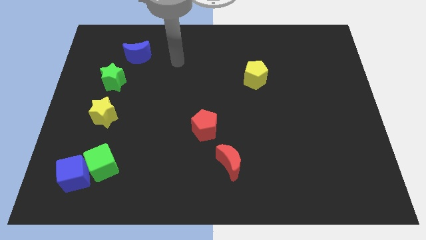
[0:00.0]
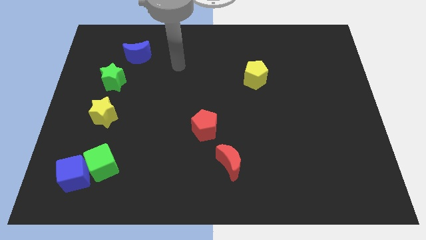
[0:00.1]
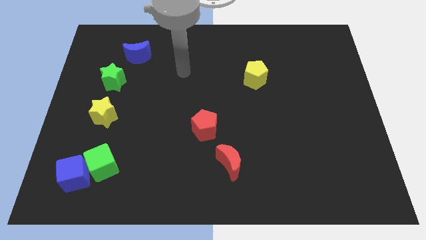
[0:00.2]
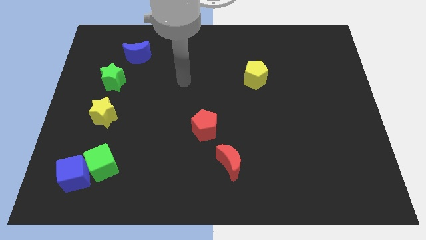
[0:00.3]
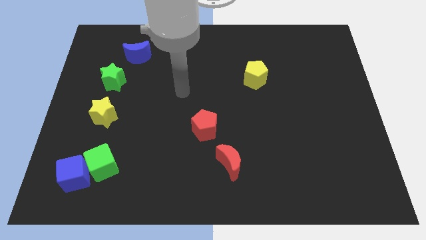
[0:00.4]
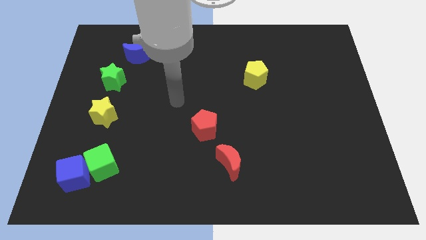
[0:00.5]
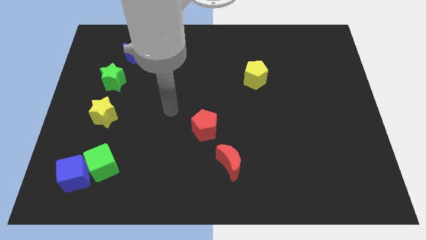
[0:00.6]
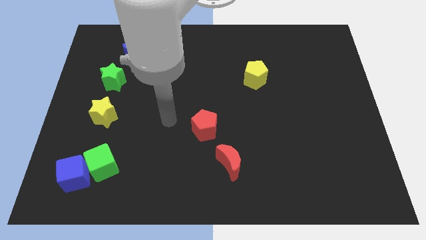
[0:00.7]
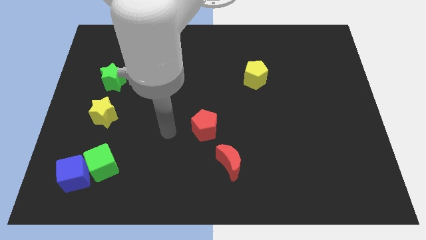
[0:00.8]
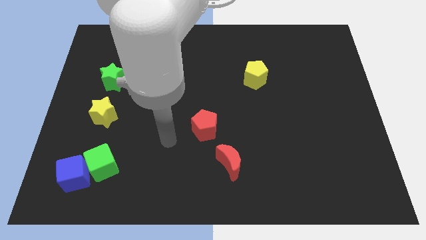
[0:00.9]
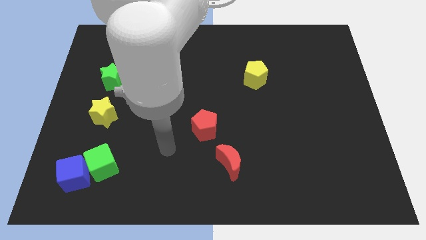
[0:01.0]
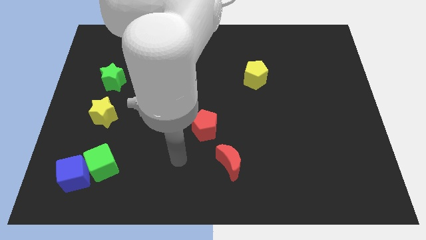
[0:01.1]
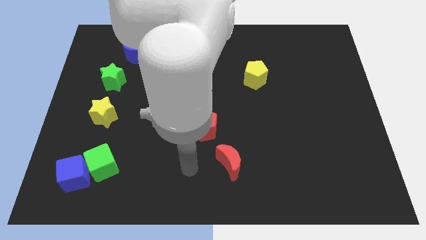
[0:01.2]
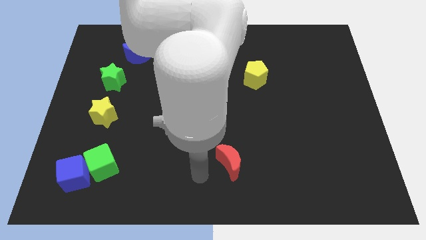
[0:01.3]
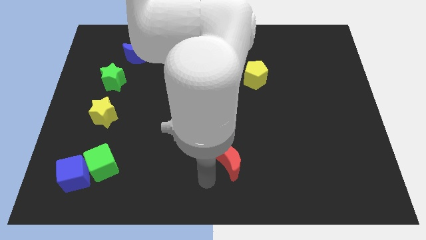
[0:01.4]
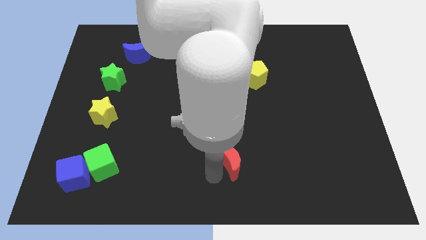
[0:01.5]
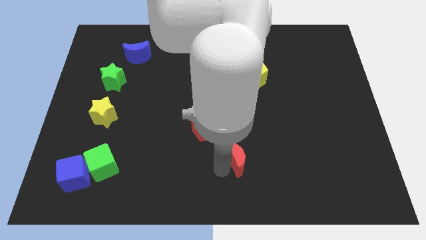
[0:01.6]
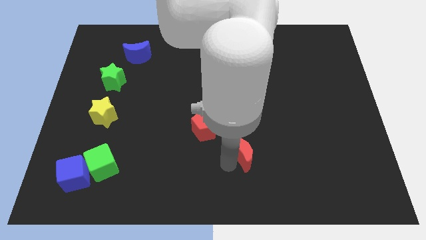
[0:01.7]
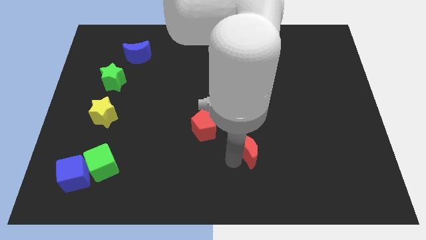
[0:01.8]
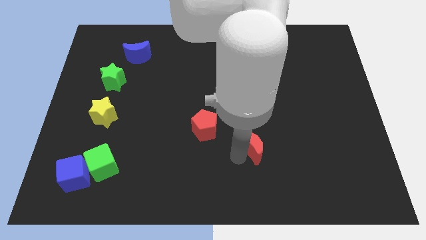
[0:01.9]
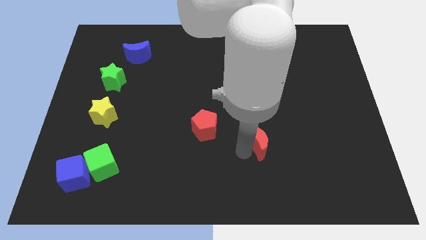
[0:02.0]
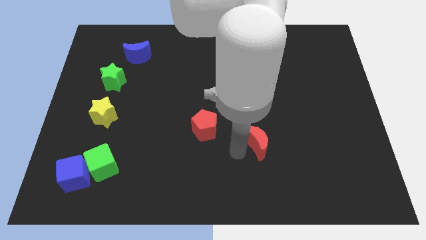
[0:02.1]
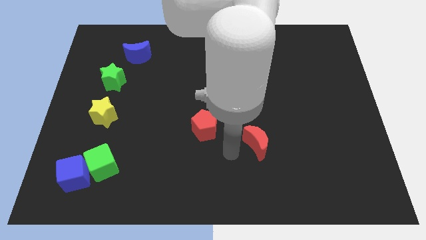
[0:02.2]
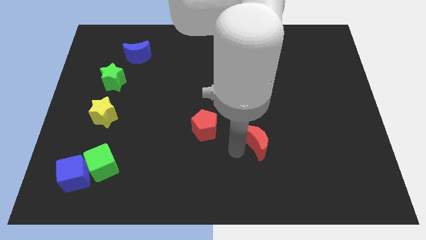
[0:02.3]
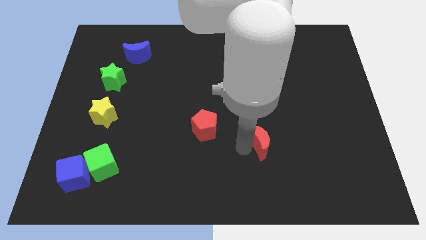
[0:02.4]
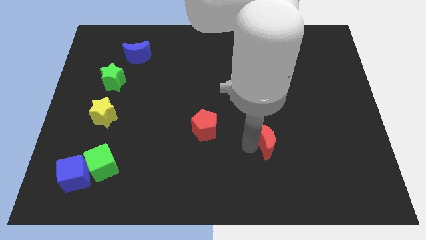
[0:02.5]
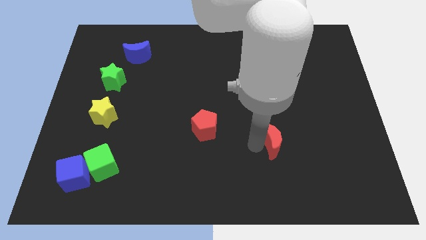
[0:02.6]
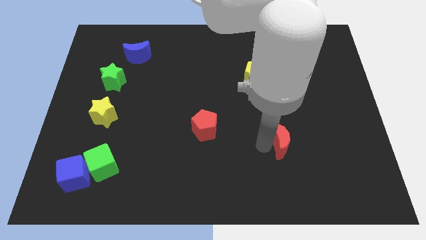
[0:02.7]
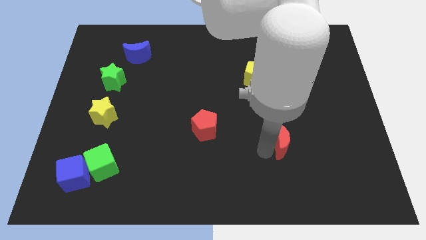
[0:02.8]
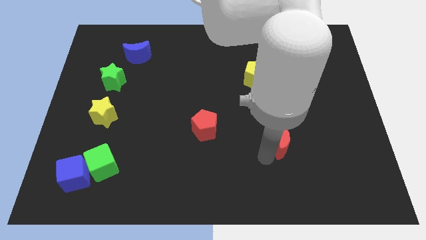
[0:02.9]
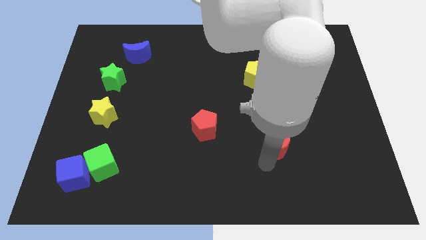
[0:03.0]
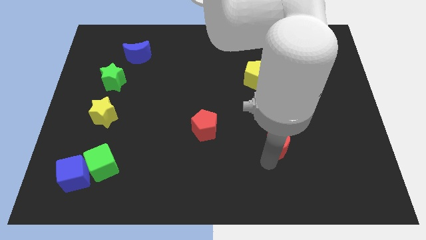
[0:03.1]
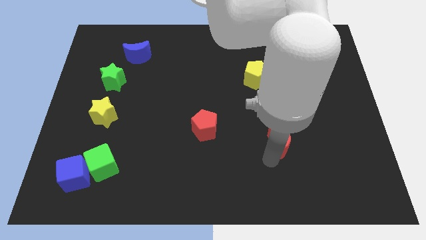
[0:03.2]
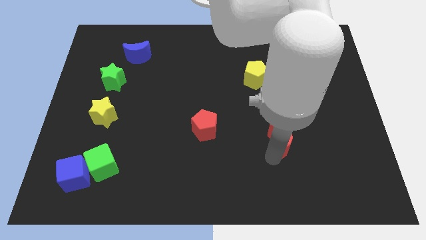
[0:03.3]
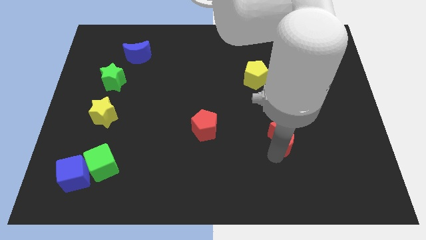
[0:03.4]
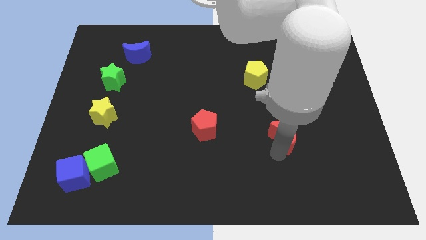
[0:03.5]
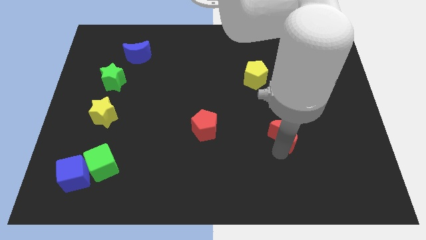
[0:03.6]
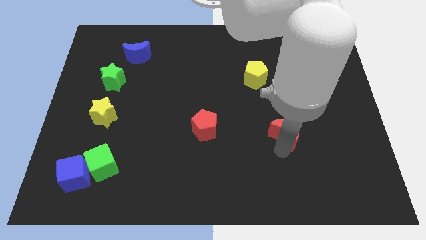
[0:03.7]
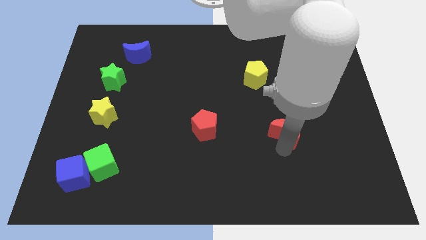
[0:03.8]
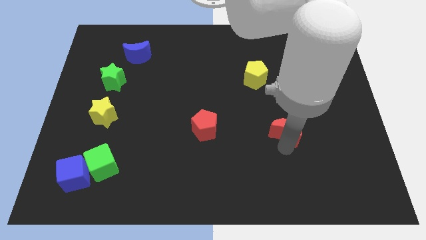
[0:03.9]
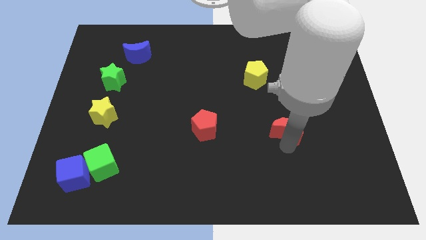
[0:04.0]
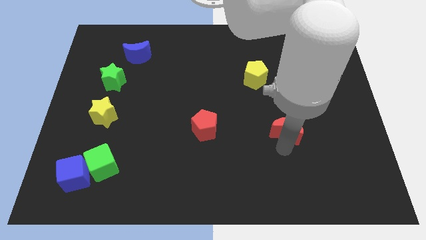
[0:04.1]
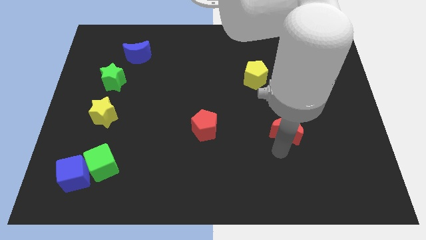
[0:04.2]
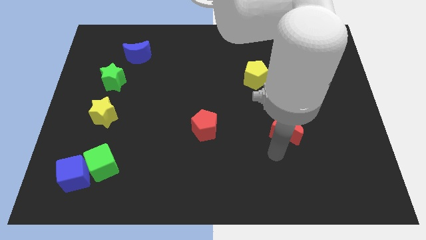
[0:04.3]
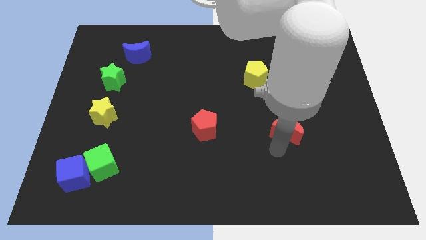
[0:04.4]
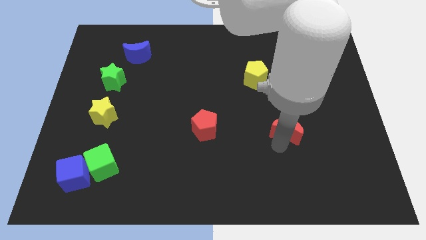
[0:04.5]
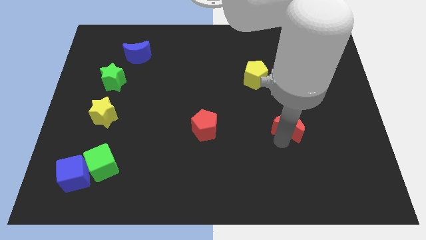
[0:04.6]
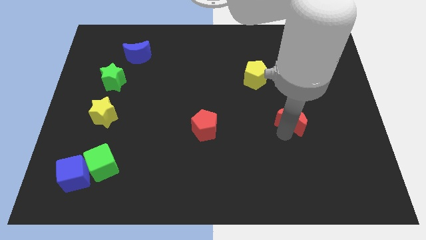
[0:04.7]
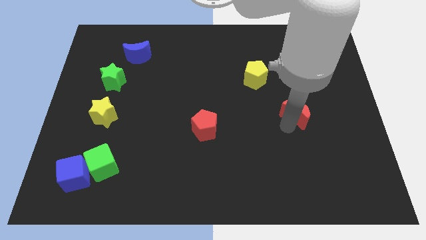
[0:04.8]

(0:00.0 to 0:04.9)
move the red moon upwards and right diagonally

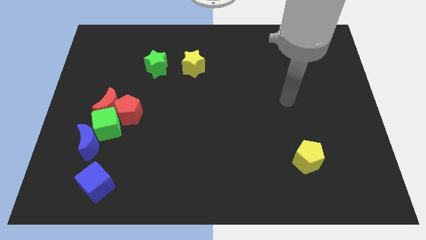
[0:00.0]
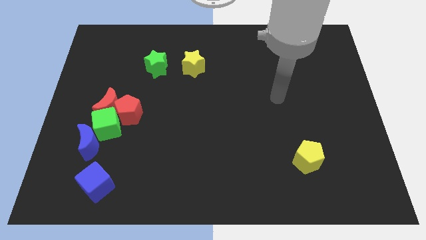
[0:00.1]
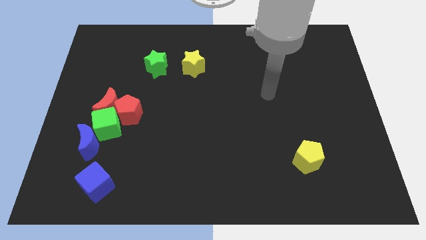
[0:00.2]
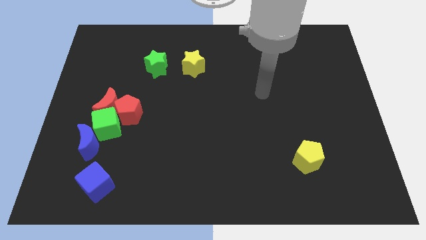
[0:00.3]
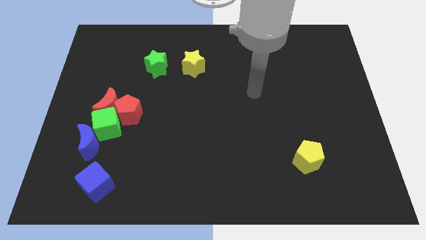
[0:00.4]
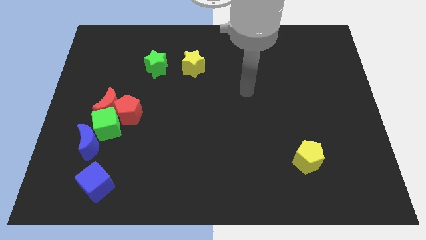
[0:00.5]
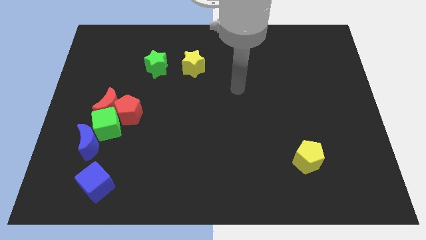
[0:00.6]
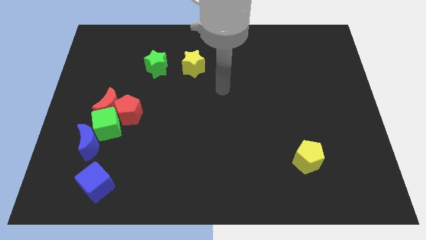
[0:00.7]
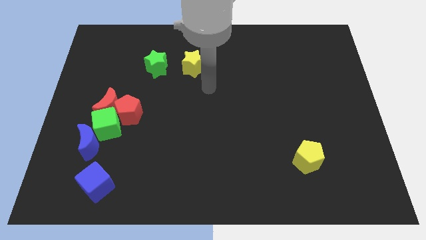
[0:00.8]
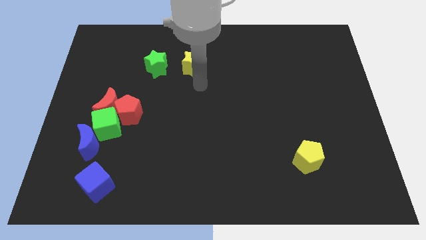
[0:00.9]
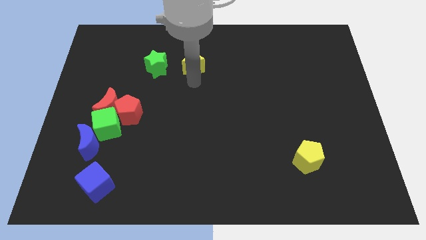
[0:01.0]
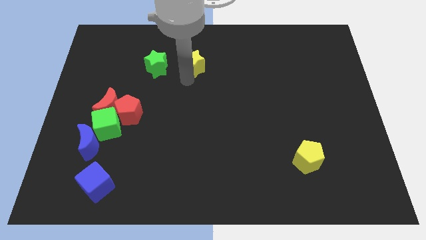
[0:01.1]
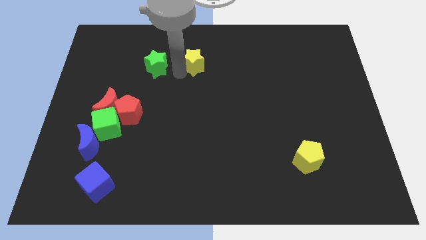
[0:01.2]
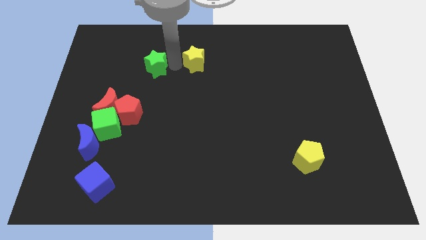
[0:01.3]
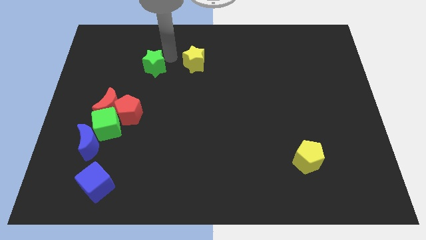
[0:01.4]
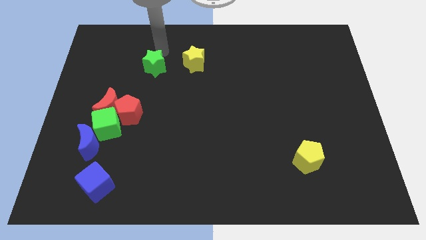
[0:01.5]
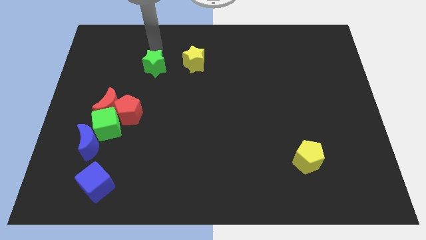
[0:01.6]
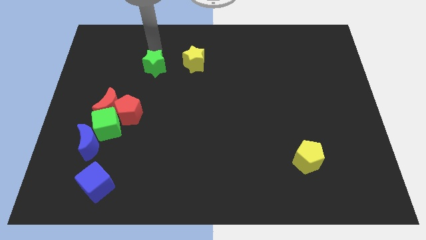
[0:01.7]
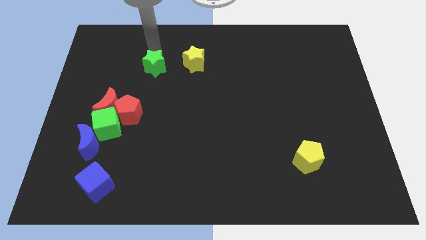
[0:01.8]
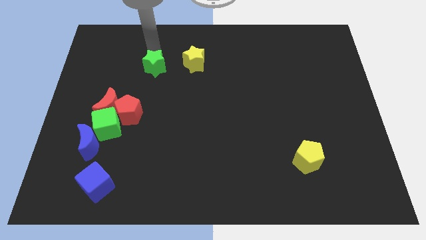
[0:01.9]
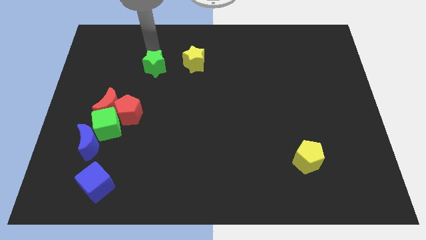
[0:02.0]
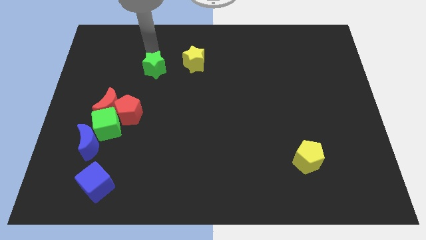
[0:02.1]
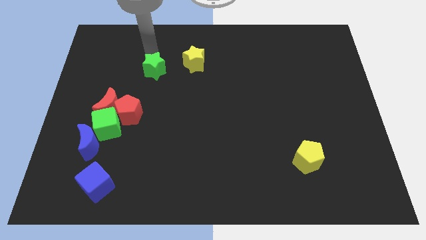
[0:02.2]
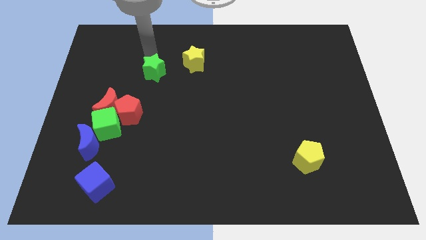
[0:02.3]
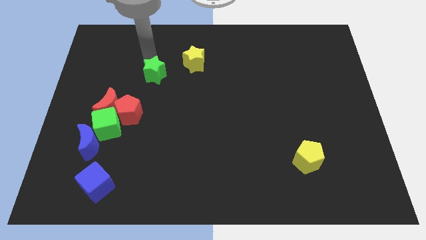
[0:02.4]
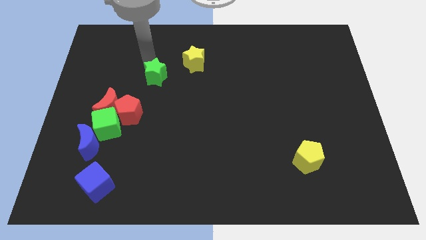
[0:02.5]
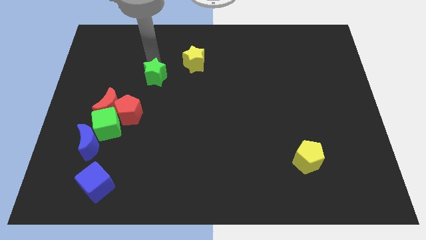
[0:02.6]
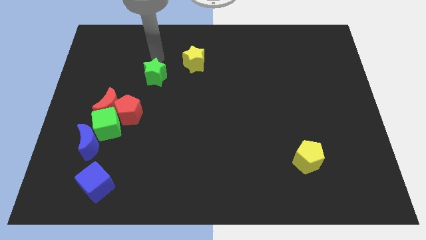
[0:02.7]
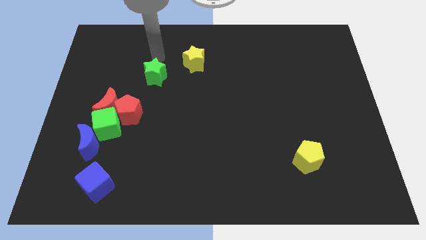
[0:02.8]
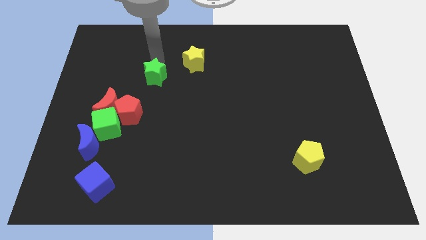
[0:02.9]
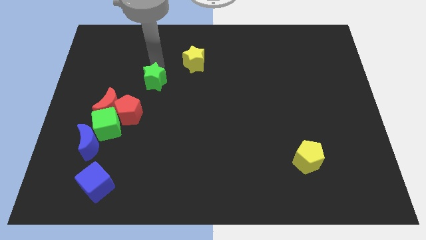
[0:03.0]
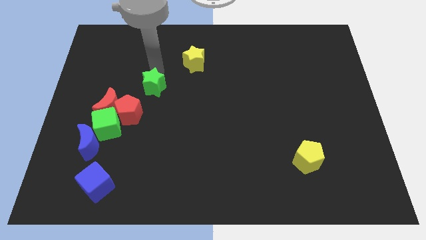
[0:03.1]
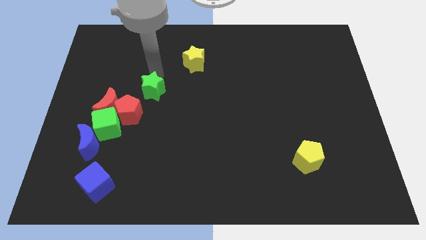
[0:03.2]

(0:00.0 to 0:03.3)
slide the green star down a bit

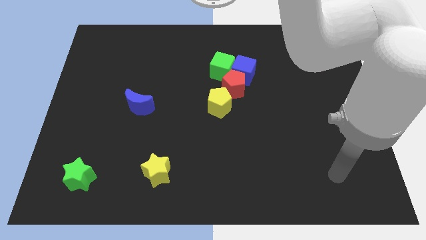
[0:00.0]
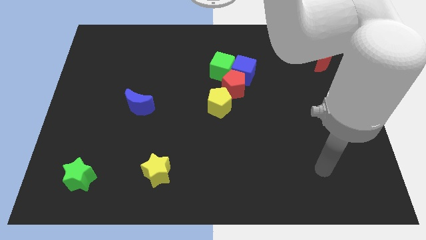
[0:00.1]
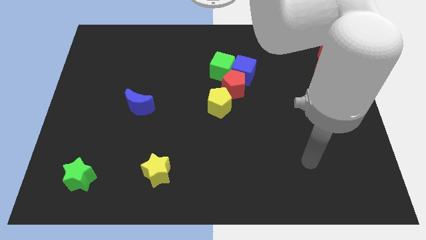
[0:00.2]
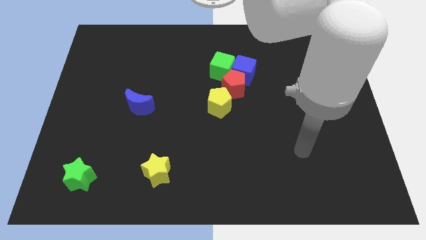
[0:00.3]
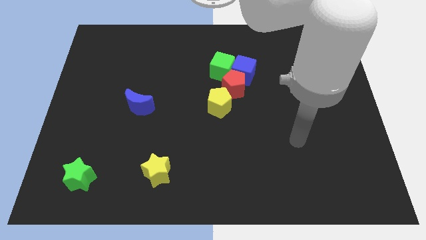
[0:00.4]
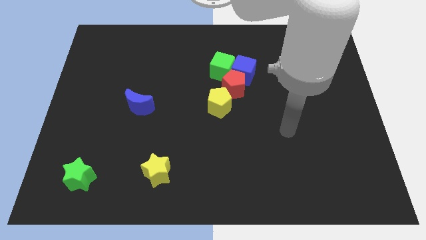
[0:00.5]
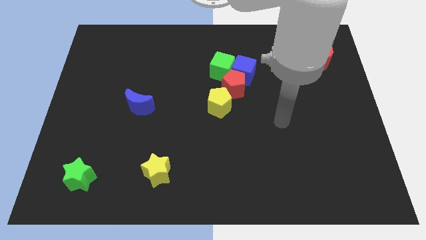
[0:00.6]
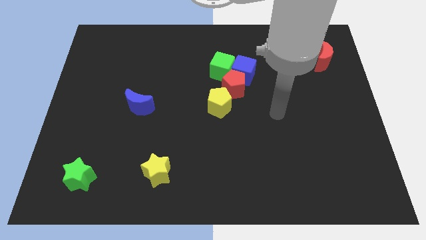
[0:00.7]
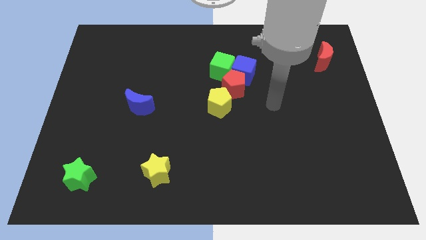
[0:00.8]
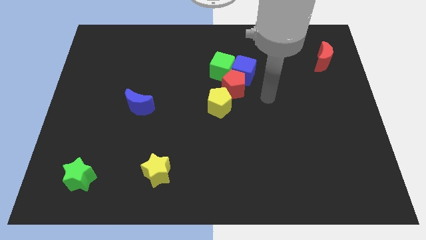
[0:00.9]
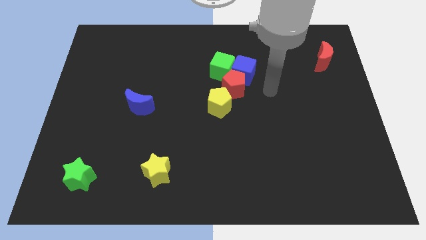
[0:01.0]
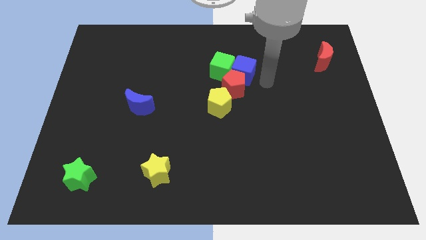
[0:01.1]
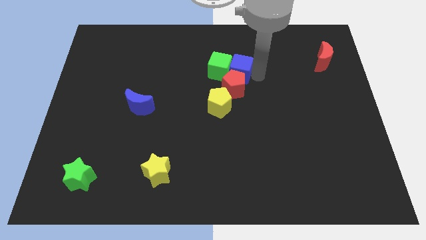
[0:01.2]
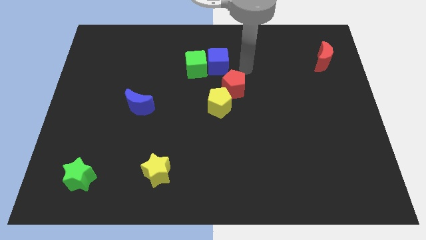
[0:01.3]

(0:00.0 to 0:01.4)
move the green cube somewhat left
